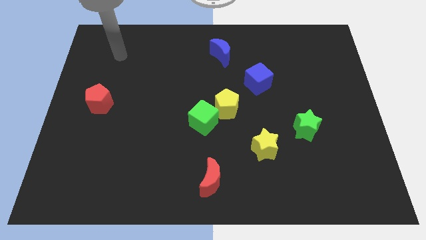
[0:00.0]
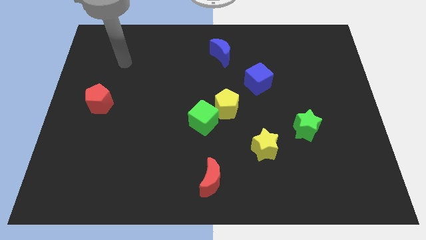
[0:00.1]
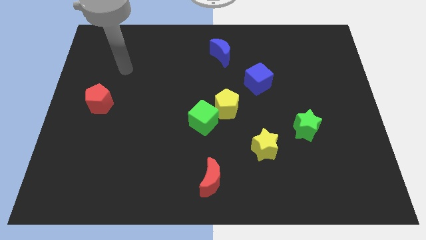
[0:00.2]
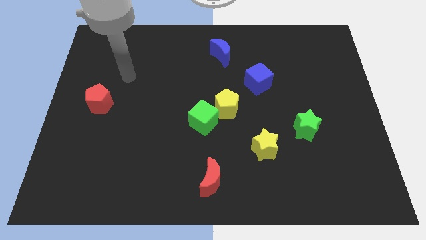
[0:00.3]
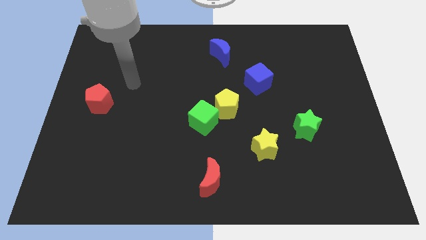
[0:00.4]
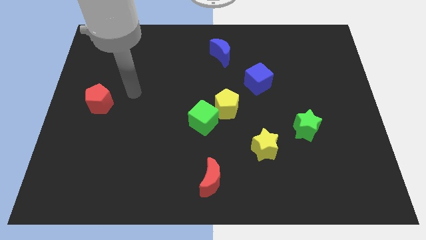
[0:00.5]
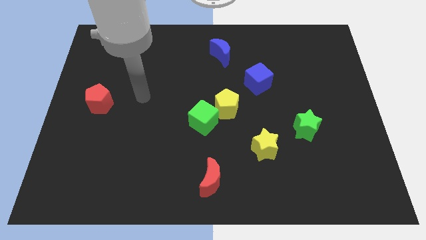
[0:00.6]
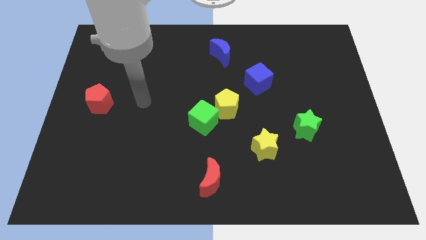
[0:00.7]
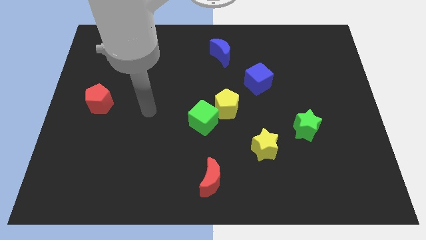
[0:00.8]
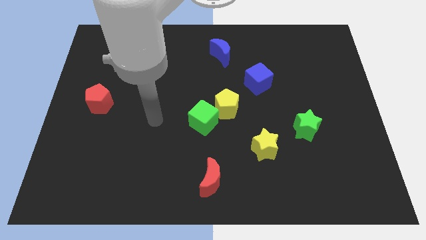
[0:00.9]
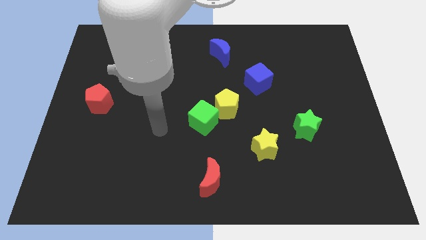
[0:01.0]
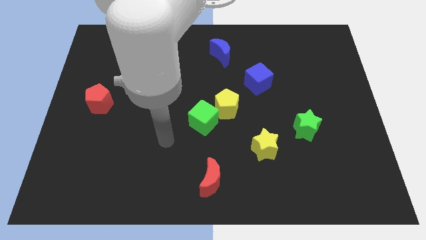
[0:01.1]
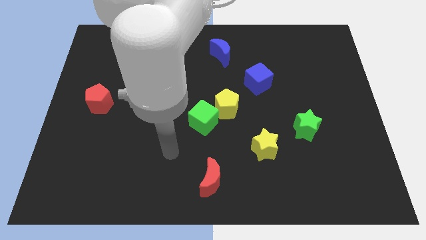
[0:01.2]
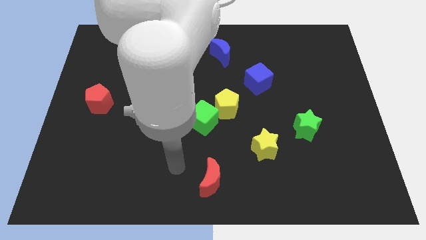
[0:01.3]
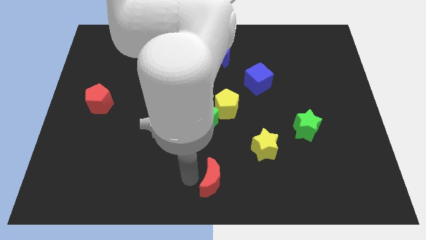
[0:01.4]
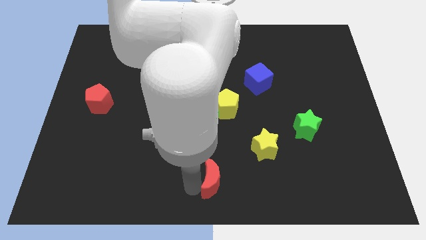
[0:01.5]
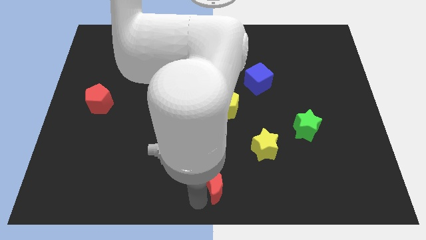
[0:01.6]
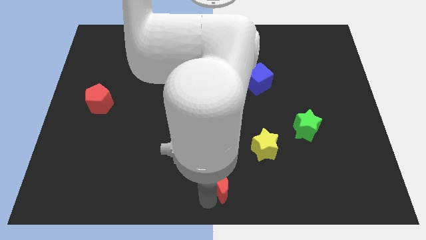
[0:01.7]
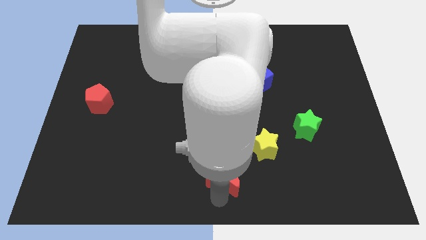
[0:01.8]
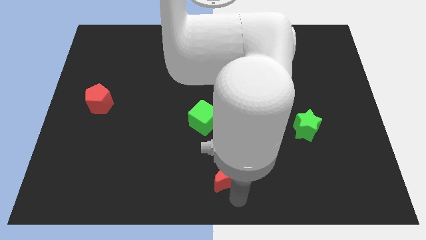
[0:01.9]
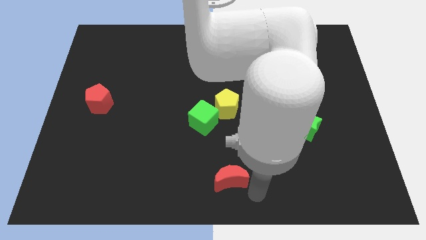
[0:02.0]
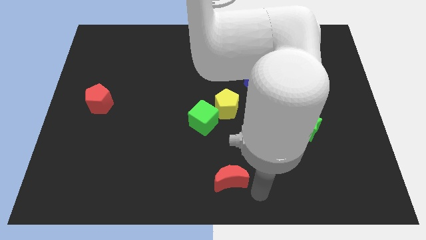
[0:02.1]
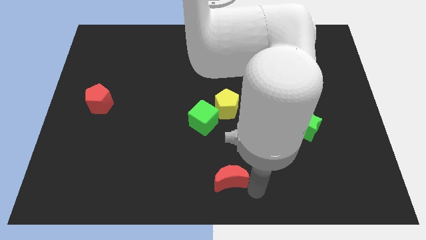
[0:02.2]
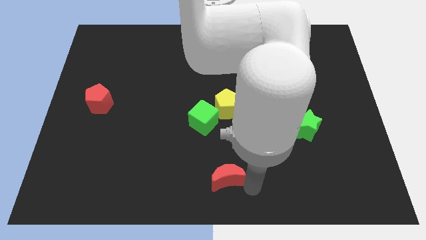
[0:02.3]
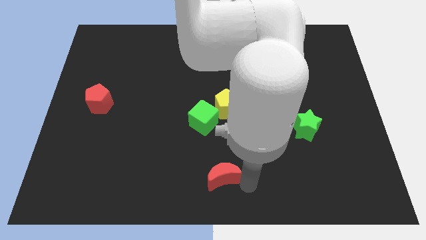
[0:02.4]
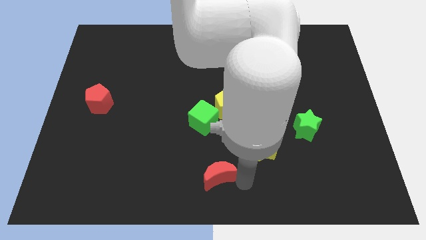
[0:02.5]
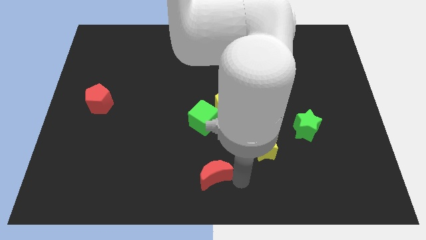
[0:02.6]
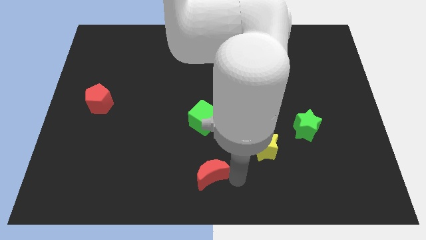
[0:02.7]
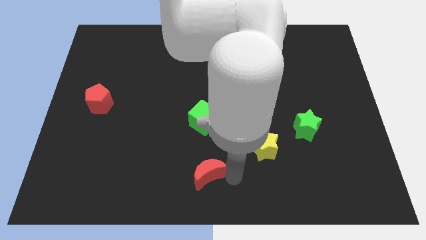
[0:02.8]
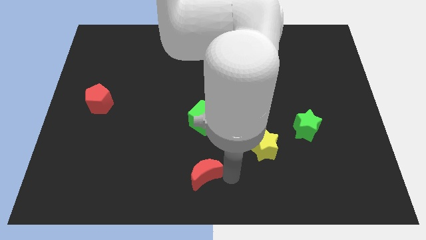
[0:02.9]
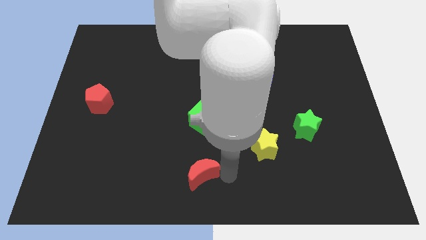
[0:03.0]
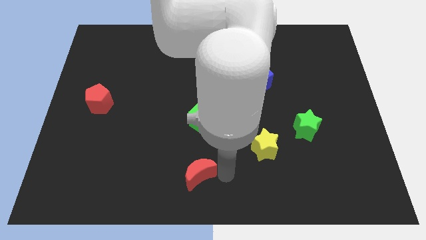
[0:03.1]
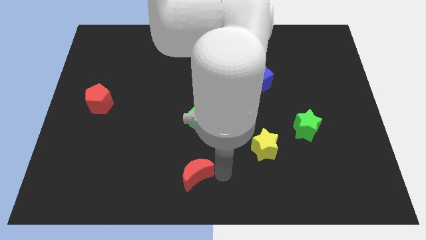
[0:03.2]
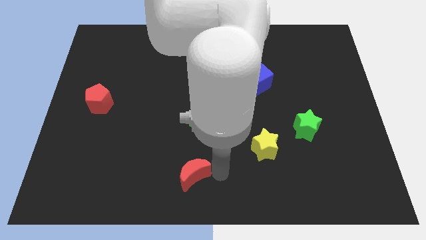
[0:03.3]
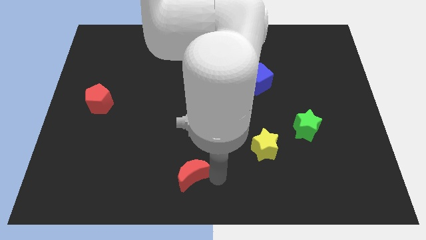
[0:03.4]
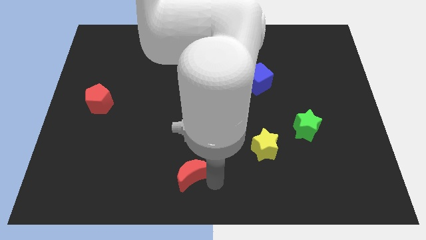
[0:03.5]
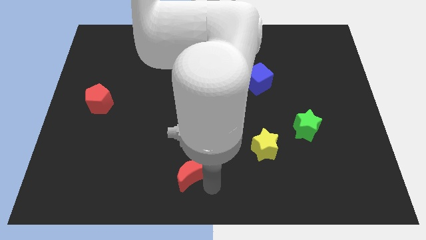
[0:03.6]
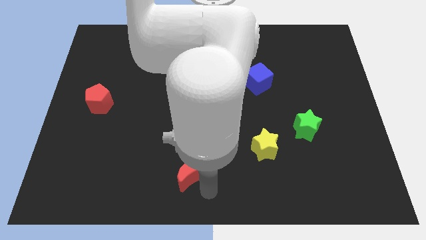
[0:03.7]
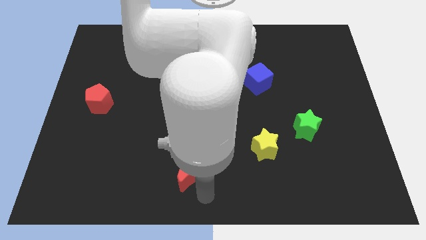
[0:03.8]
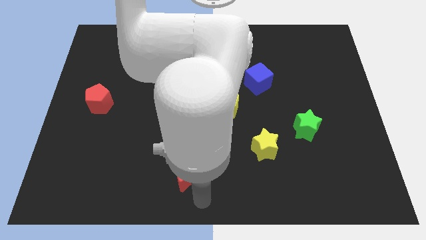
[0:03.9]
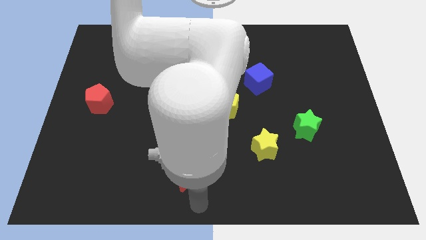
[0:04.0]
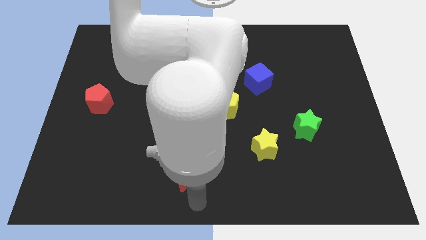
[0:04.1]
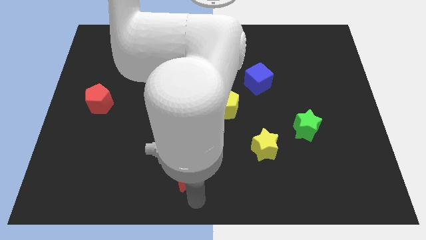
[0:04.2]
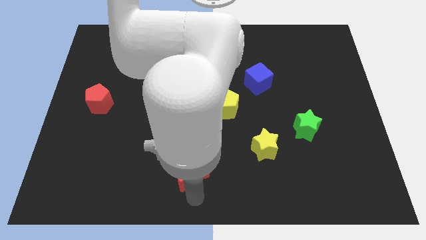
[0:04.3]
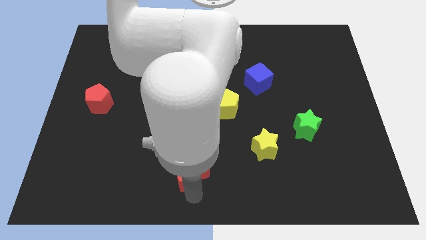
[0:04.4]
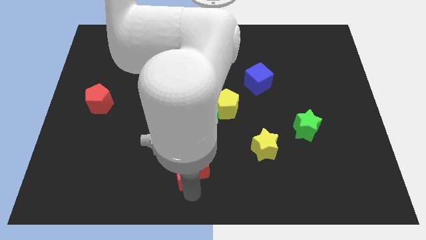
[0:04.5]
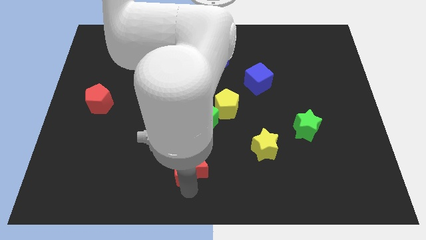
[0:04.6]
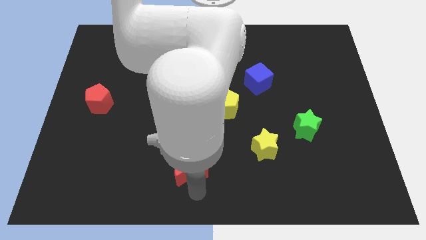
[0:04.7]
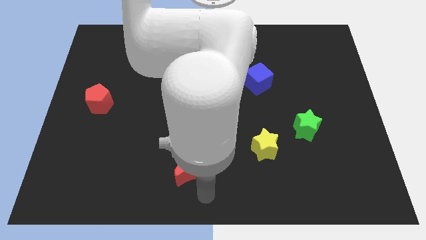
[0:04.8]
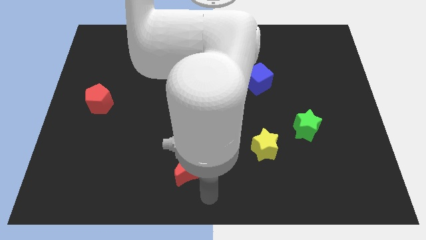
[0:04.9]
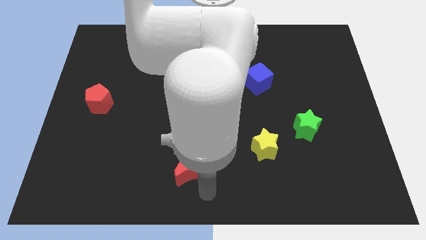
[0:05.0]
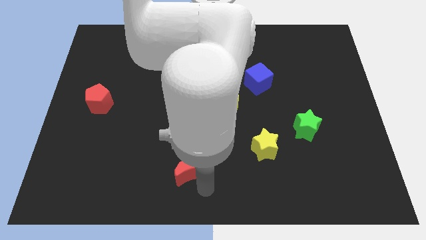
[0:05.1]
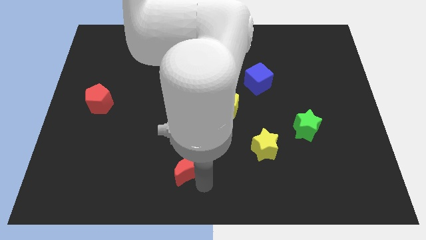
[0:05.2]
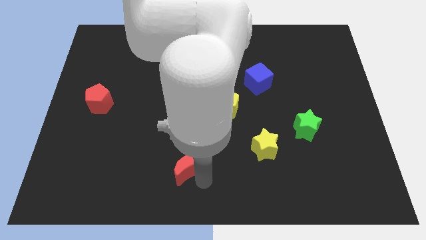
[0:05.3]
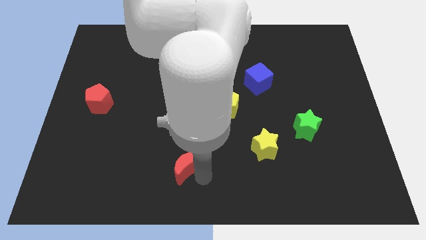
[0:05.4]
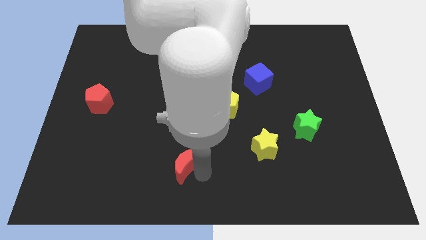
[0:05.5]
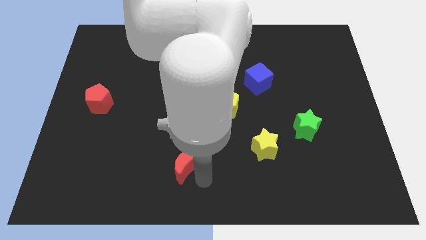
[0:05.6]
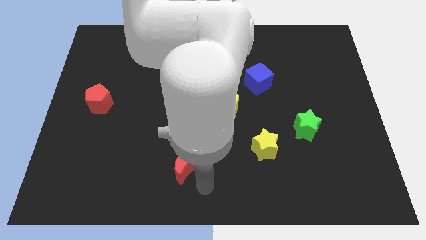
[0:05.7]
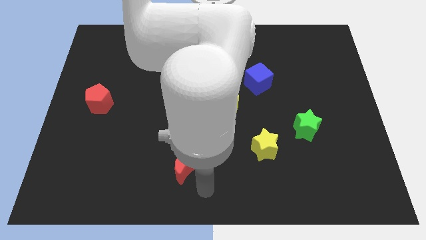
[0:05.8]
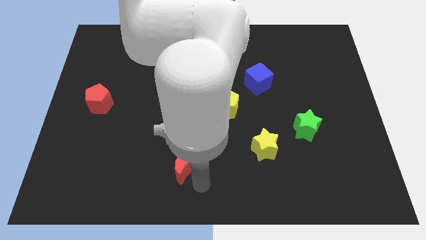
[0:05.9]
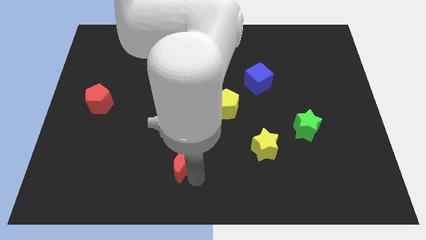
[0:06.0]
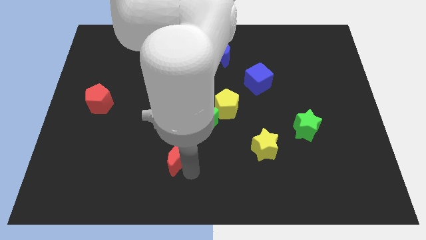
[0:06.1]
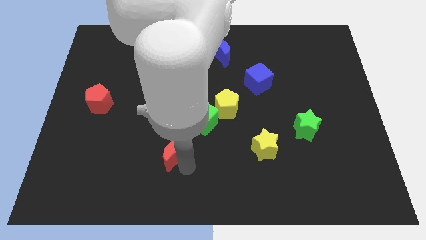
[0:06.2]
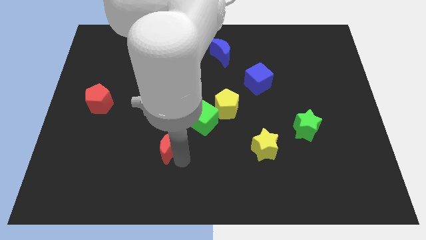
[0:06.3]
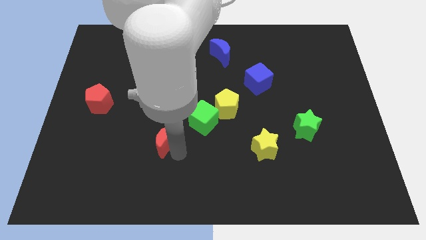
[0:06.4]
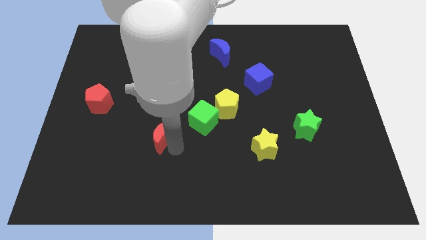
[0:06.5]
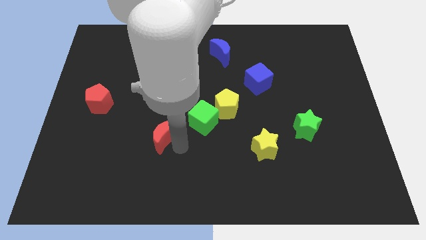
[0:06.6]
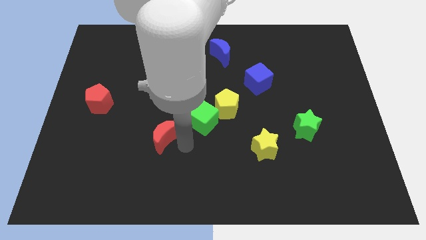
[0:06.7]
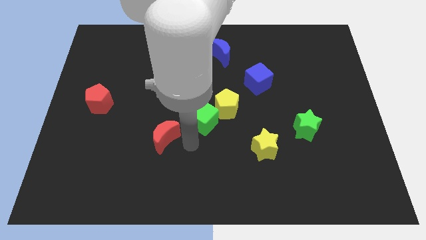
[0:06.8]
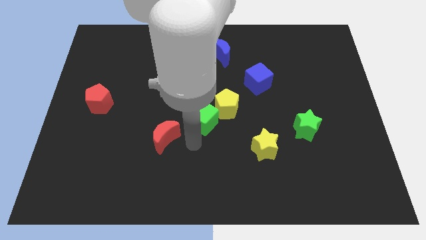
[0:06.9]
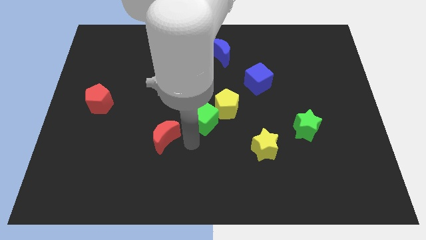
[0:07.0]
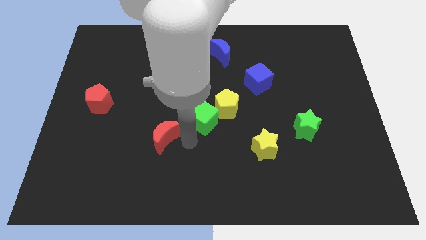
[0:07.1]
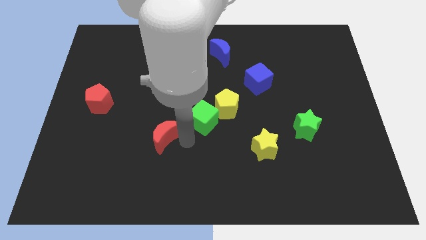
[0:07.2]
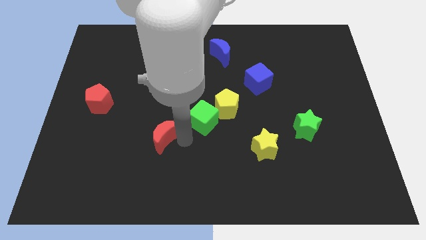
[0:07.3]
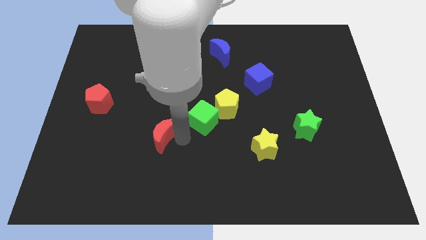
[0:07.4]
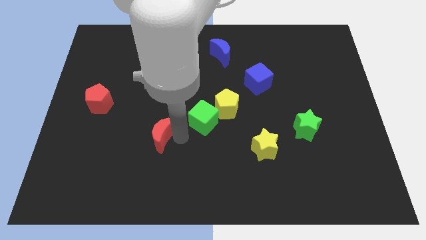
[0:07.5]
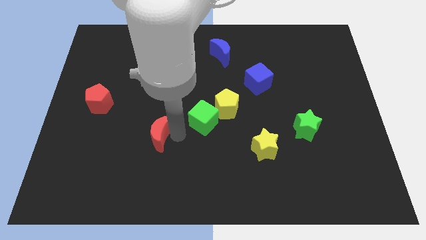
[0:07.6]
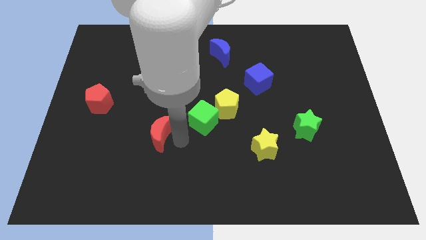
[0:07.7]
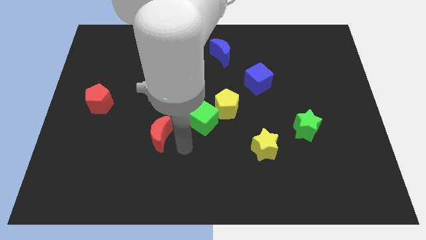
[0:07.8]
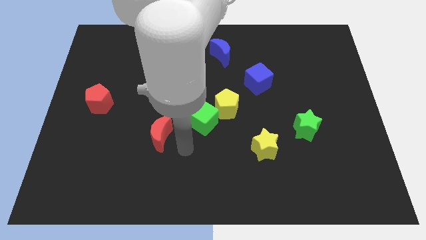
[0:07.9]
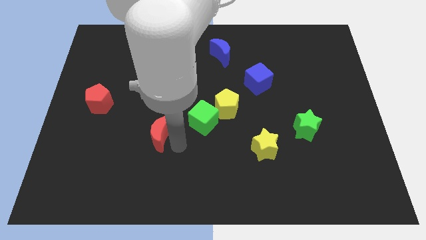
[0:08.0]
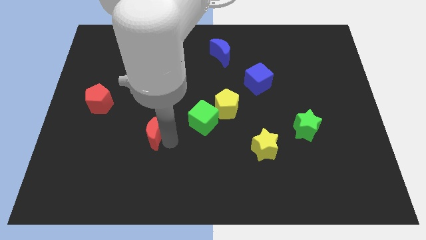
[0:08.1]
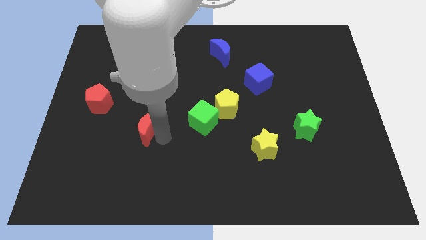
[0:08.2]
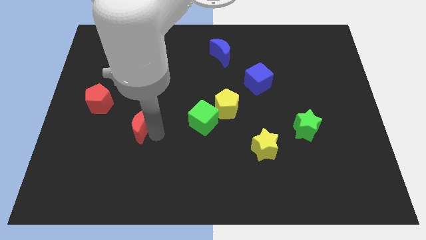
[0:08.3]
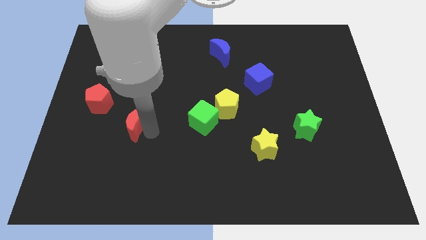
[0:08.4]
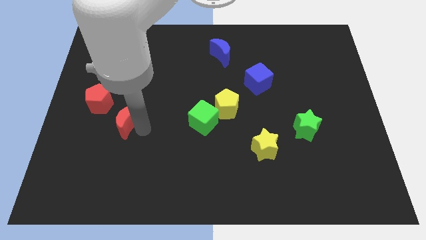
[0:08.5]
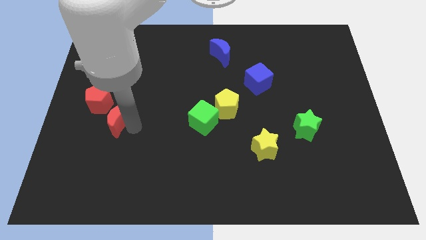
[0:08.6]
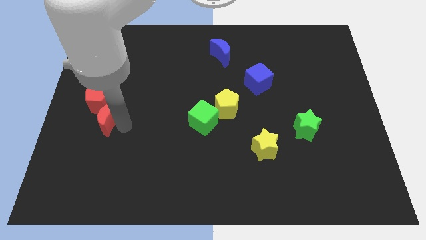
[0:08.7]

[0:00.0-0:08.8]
put the red moon next to the red pentagon
